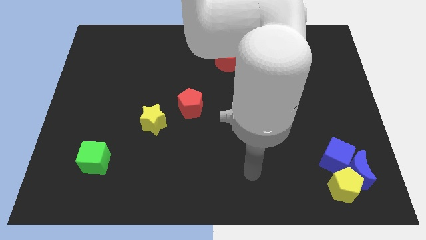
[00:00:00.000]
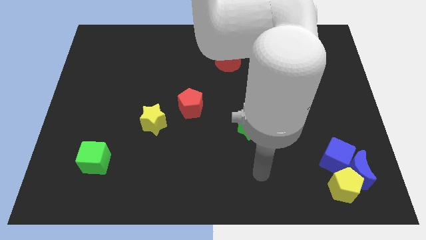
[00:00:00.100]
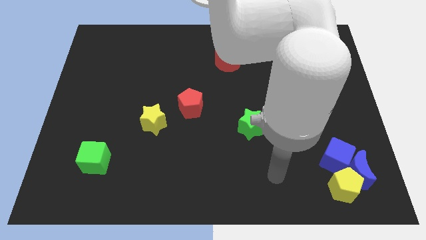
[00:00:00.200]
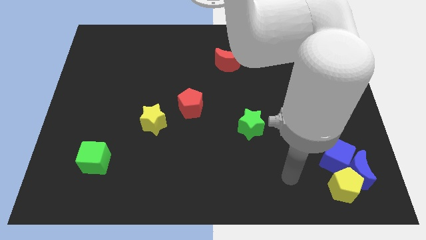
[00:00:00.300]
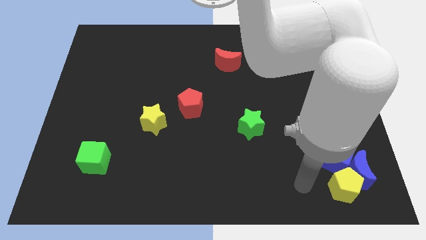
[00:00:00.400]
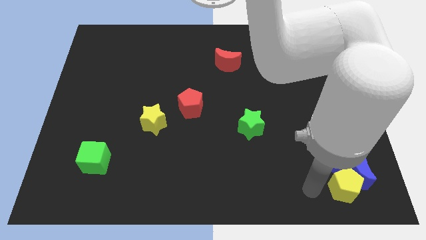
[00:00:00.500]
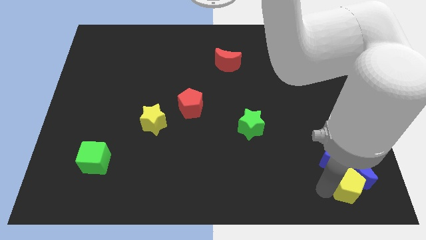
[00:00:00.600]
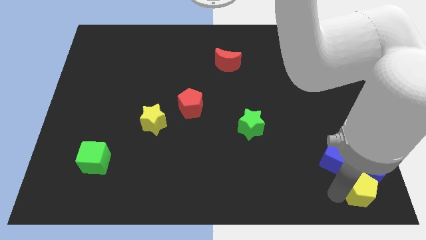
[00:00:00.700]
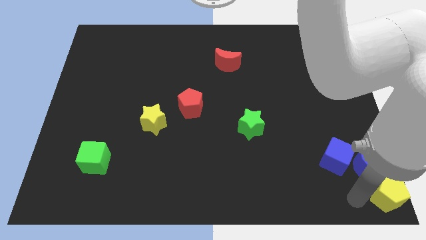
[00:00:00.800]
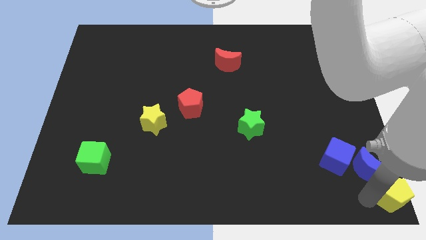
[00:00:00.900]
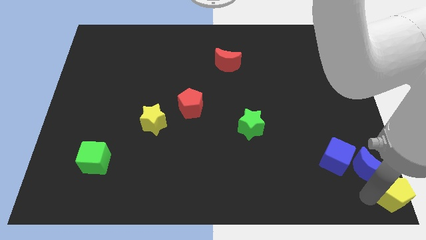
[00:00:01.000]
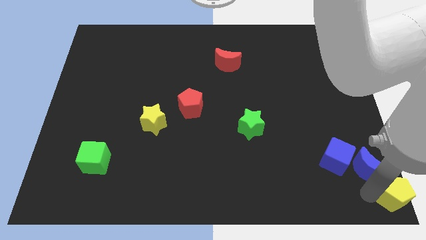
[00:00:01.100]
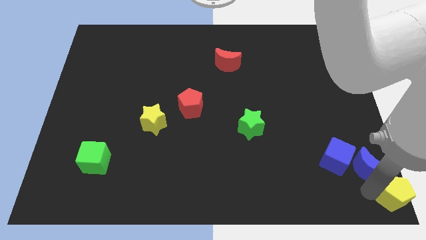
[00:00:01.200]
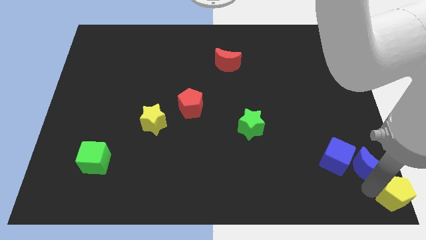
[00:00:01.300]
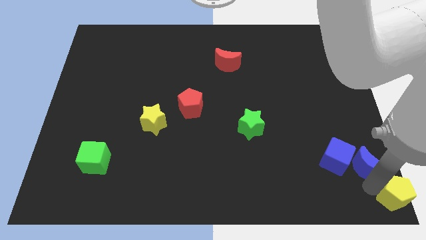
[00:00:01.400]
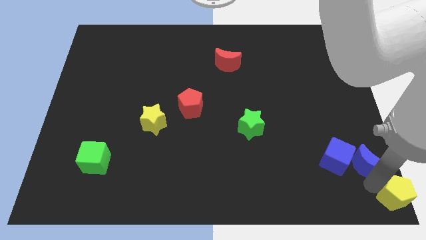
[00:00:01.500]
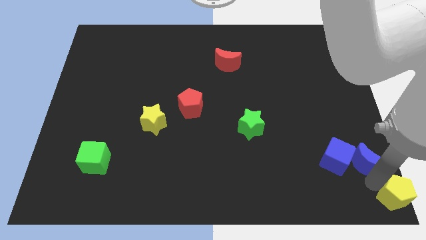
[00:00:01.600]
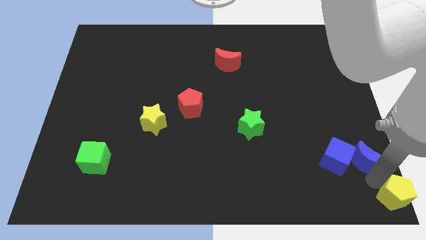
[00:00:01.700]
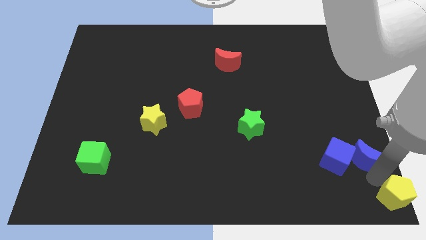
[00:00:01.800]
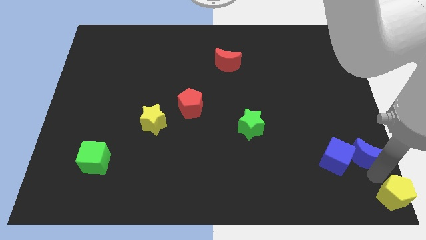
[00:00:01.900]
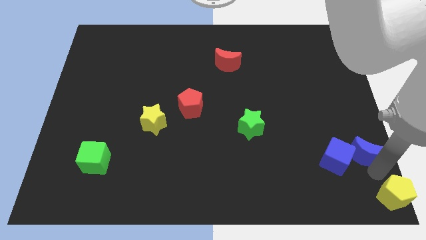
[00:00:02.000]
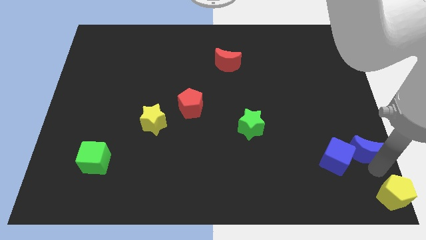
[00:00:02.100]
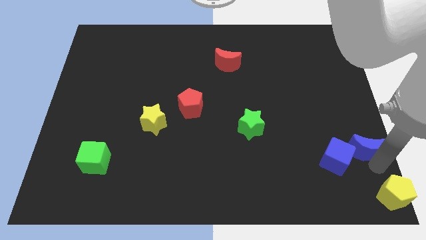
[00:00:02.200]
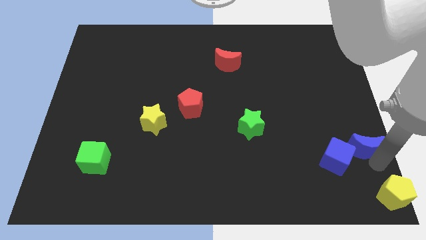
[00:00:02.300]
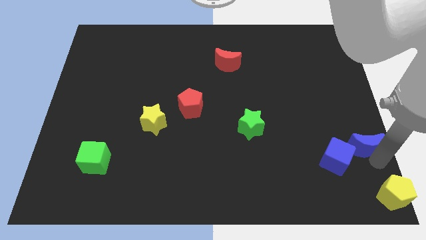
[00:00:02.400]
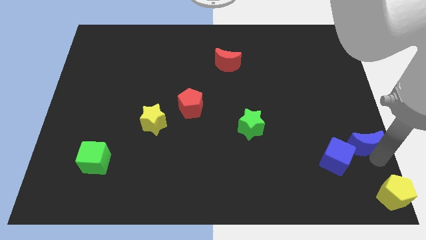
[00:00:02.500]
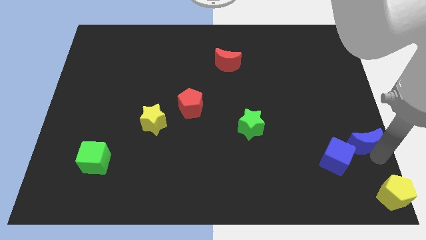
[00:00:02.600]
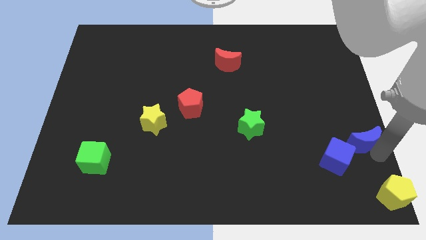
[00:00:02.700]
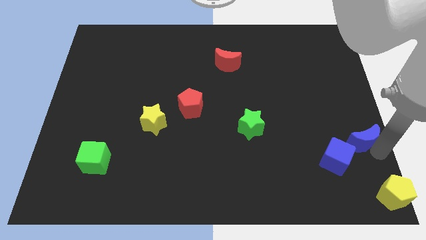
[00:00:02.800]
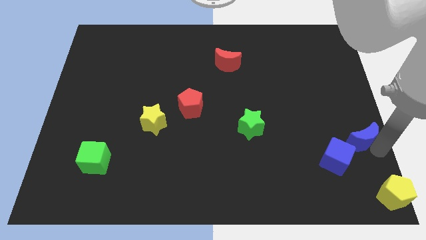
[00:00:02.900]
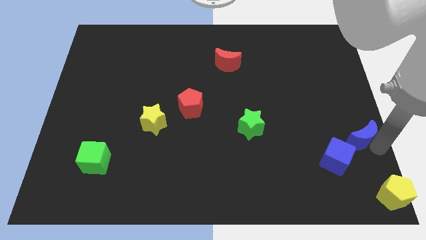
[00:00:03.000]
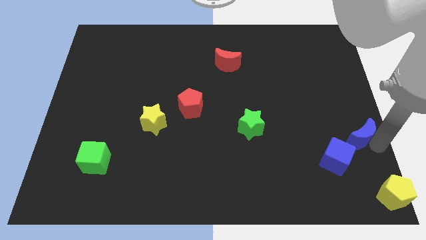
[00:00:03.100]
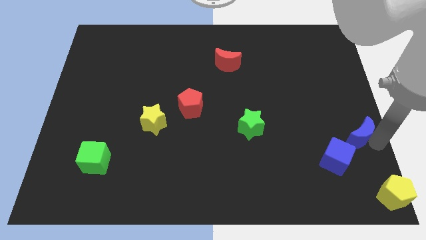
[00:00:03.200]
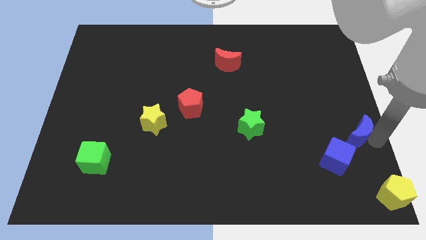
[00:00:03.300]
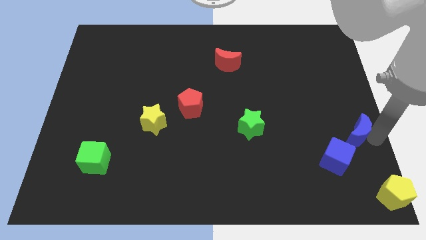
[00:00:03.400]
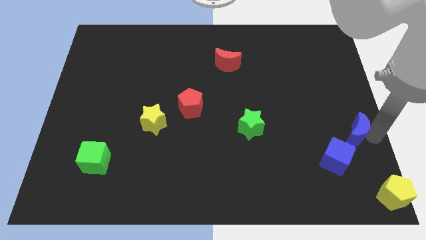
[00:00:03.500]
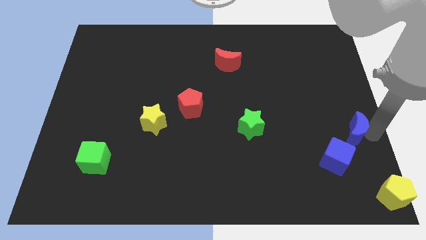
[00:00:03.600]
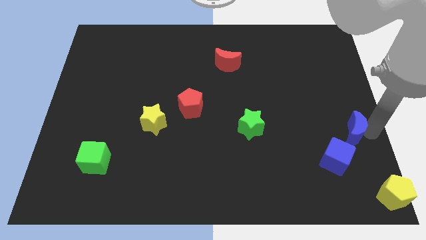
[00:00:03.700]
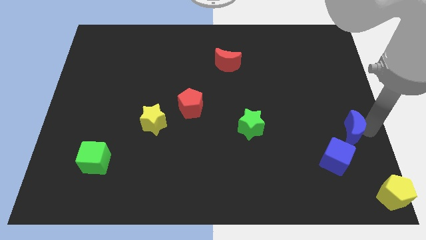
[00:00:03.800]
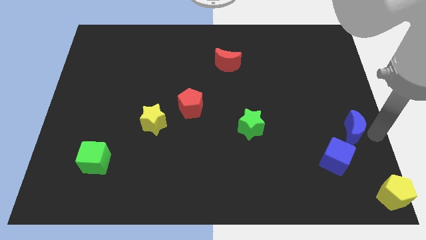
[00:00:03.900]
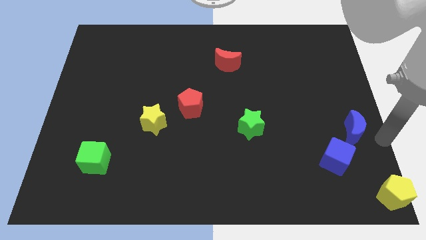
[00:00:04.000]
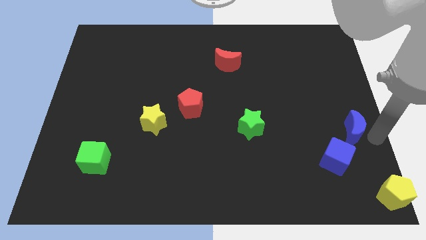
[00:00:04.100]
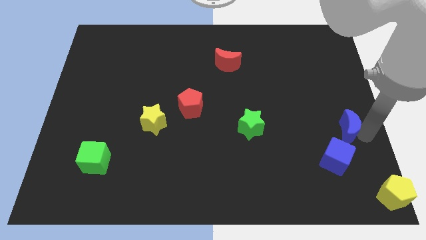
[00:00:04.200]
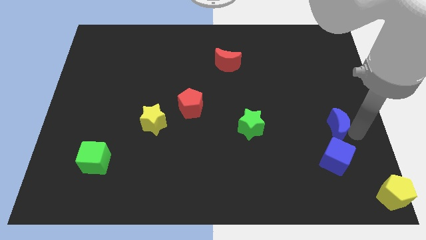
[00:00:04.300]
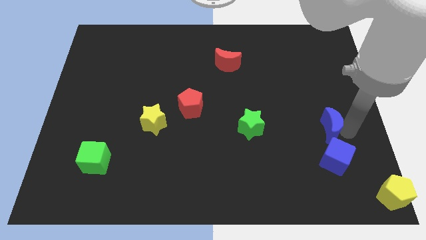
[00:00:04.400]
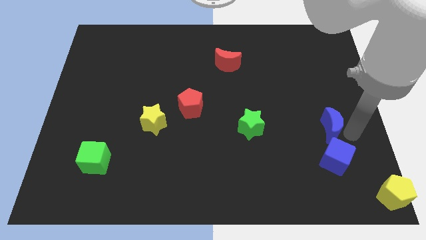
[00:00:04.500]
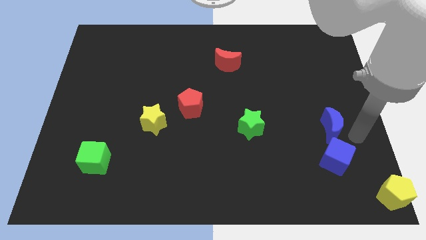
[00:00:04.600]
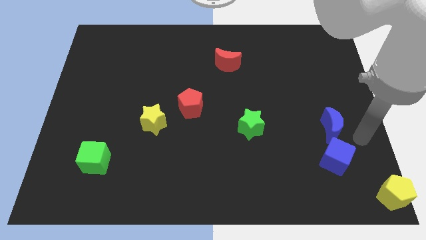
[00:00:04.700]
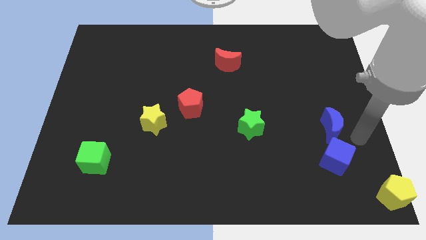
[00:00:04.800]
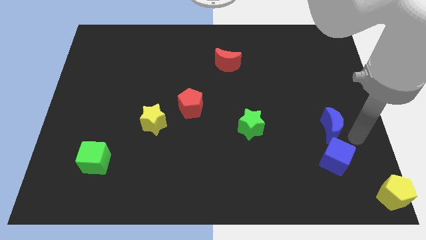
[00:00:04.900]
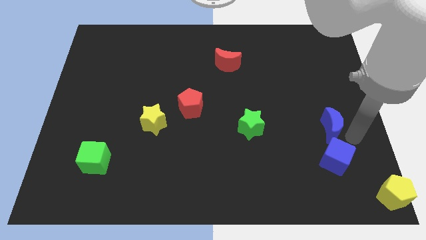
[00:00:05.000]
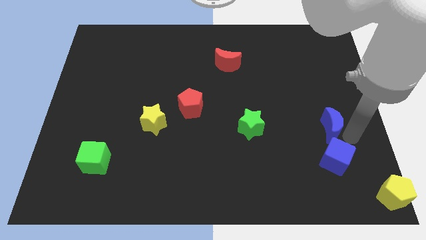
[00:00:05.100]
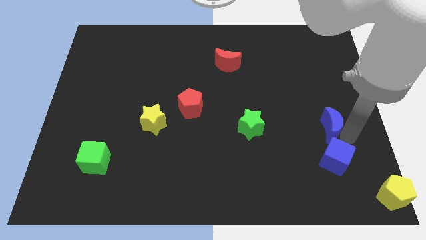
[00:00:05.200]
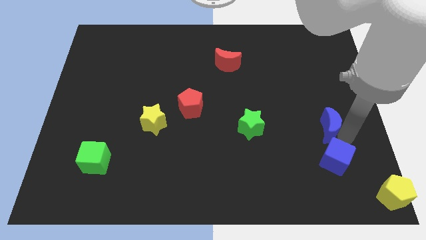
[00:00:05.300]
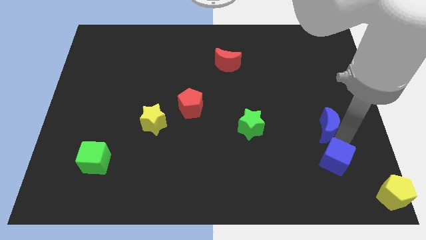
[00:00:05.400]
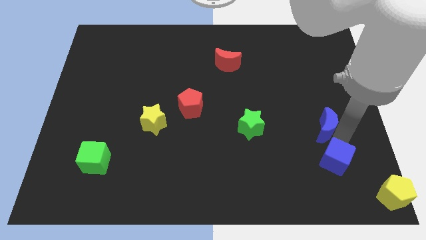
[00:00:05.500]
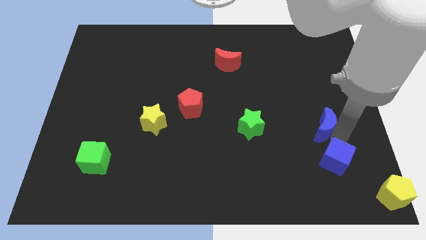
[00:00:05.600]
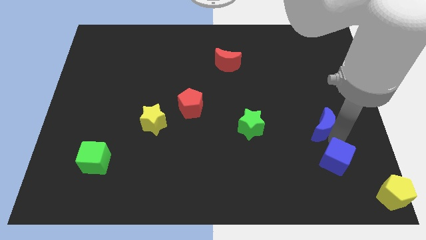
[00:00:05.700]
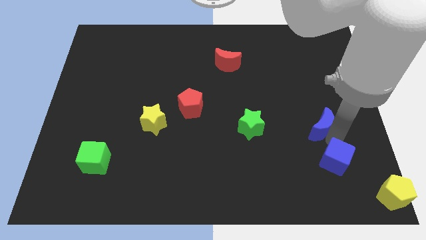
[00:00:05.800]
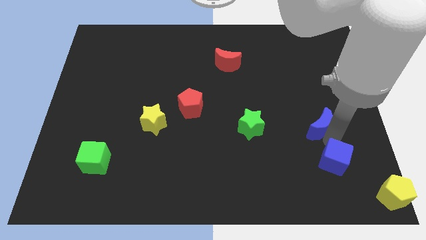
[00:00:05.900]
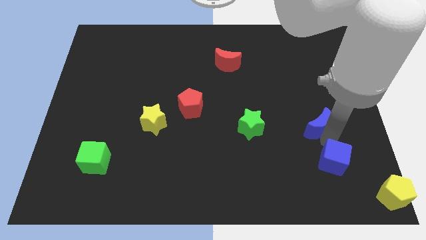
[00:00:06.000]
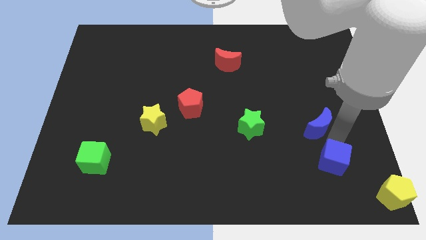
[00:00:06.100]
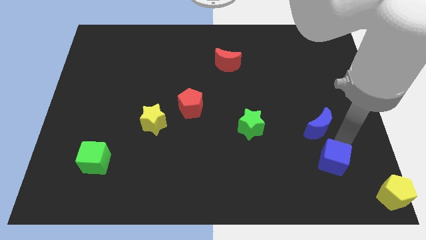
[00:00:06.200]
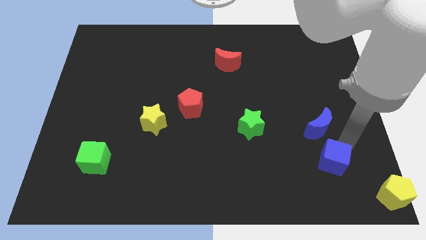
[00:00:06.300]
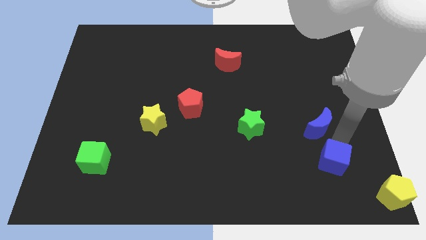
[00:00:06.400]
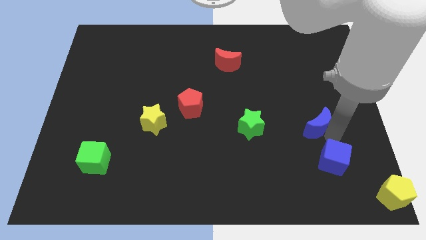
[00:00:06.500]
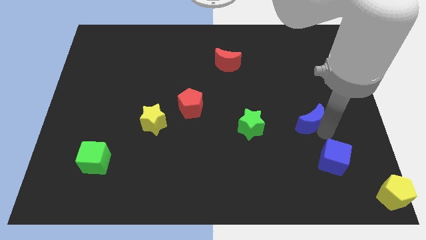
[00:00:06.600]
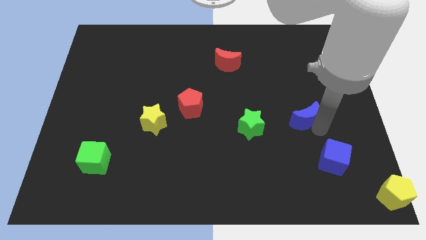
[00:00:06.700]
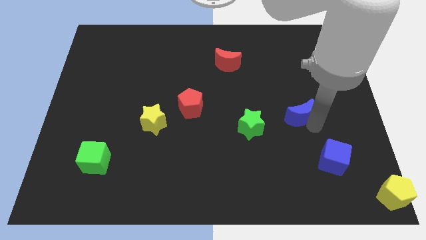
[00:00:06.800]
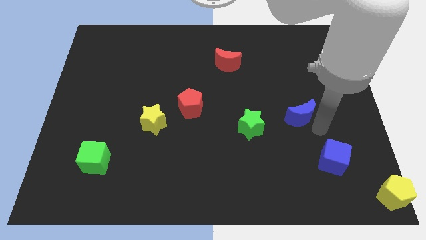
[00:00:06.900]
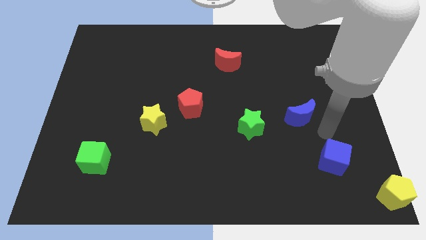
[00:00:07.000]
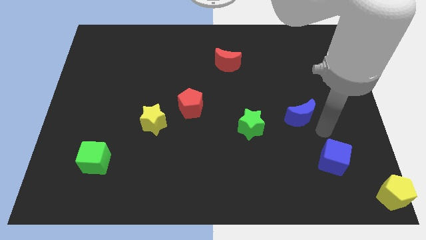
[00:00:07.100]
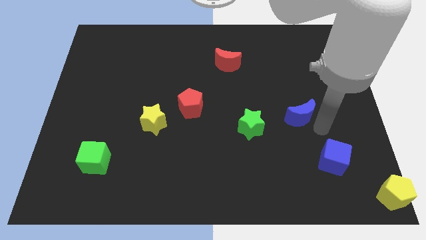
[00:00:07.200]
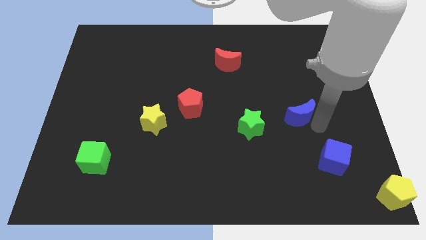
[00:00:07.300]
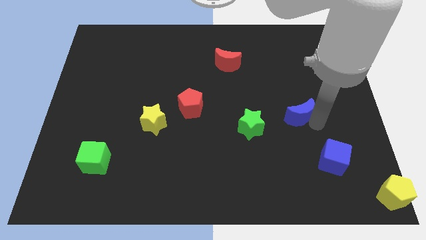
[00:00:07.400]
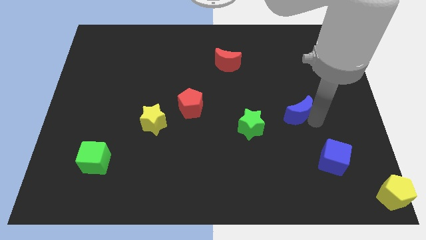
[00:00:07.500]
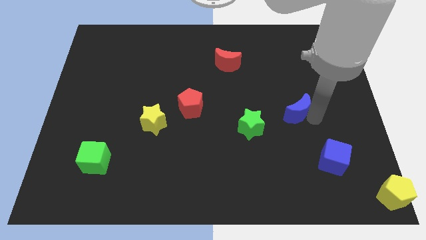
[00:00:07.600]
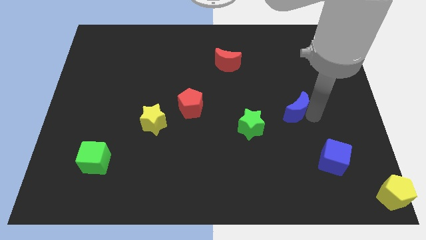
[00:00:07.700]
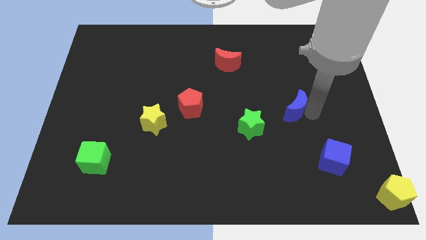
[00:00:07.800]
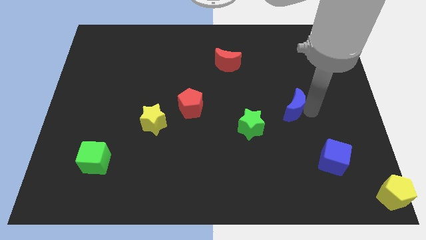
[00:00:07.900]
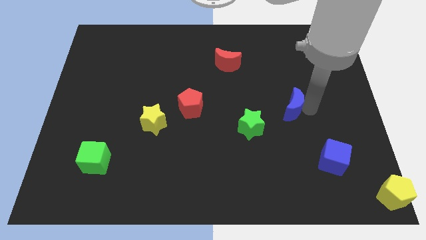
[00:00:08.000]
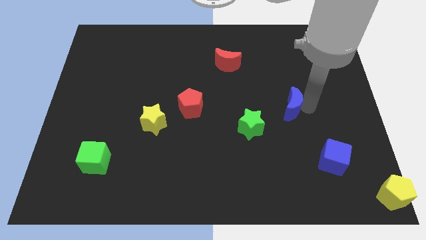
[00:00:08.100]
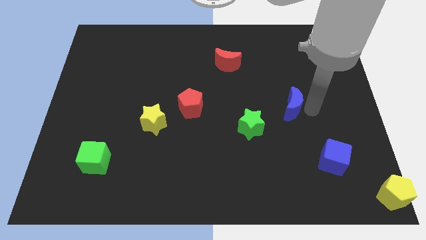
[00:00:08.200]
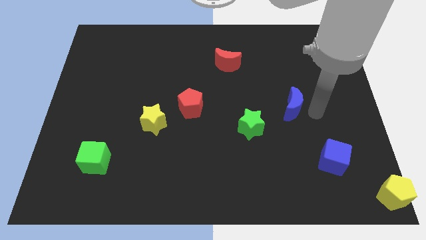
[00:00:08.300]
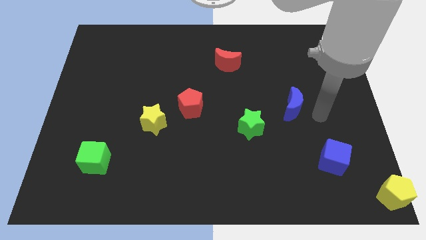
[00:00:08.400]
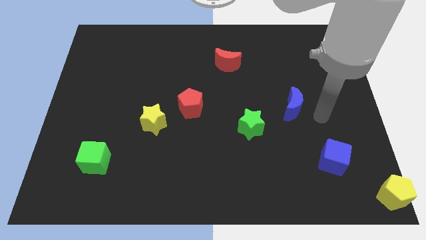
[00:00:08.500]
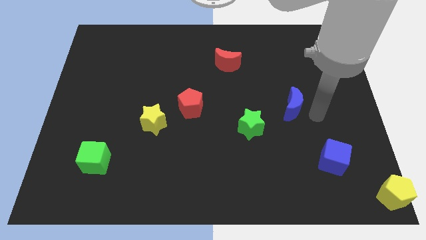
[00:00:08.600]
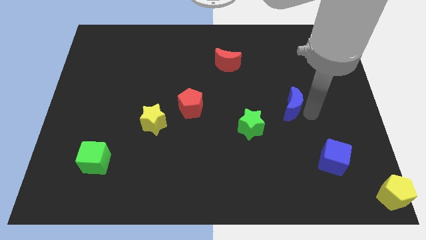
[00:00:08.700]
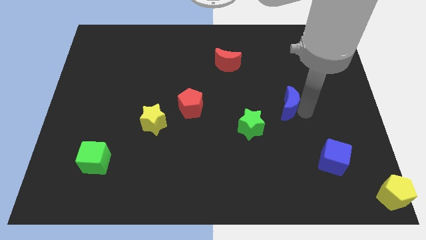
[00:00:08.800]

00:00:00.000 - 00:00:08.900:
push the blue moon upwards and to the left diagonally
